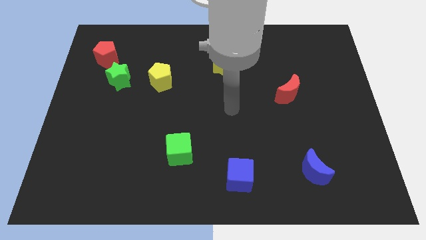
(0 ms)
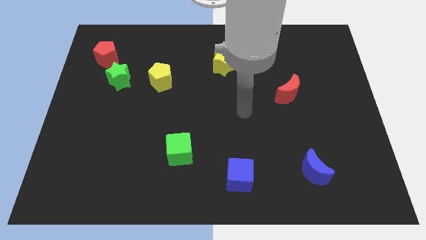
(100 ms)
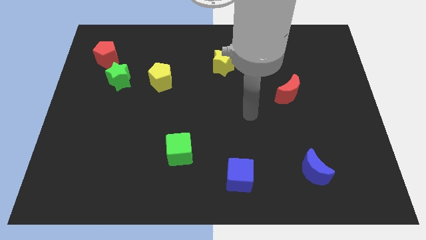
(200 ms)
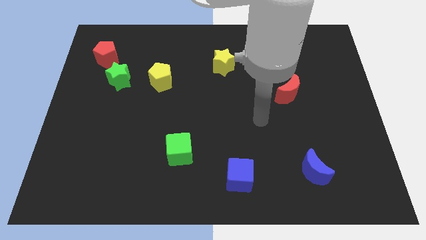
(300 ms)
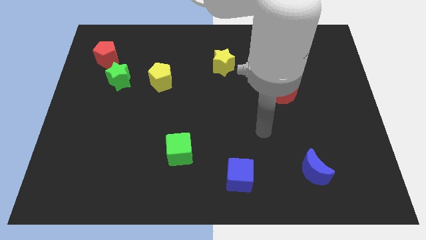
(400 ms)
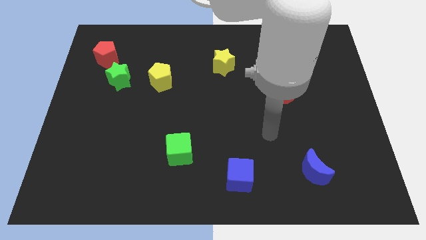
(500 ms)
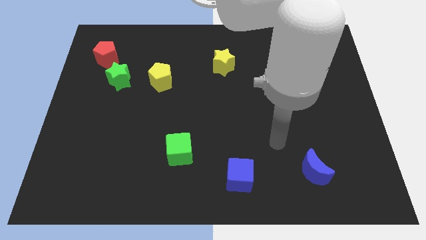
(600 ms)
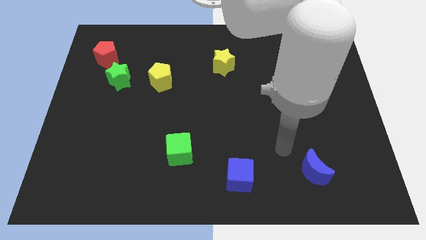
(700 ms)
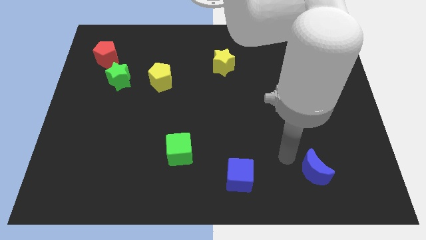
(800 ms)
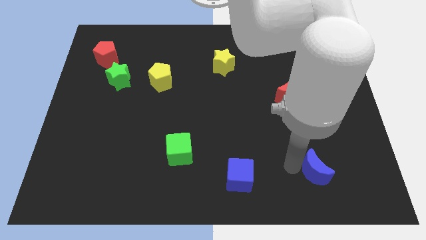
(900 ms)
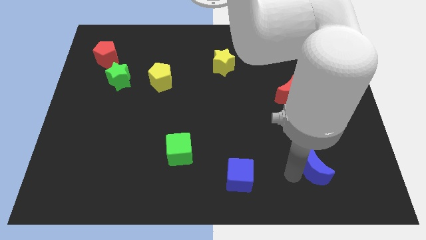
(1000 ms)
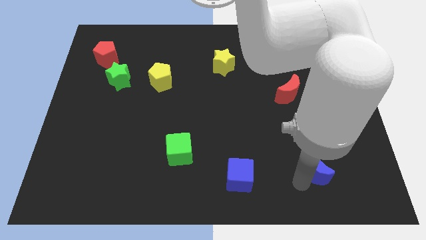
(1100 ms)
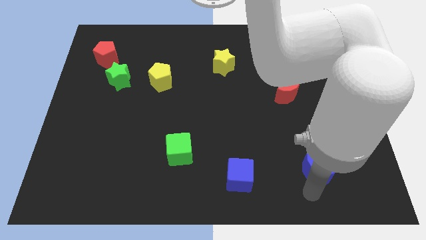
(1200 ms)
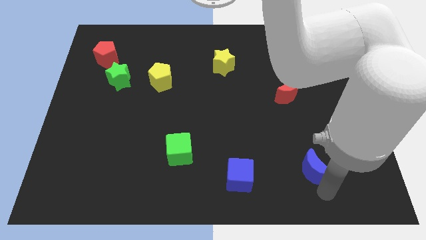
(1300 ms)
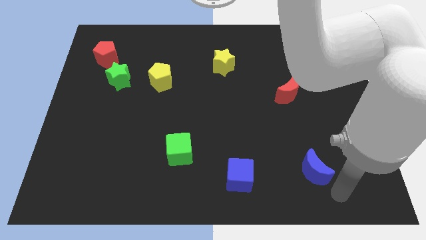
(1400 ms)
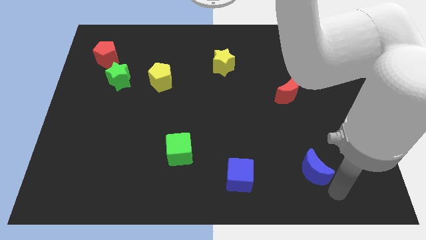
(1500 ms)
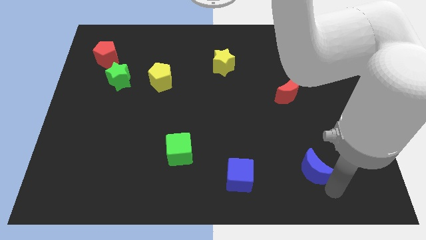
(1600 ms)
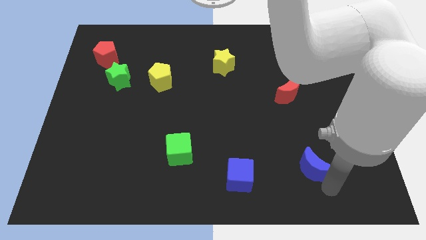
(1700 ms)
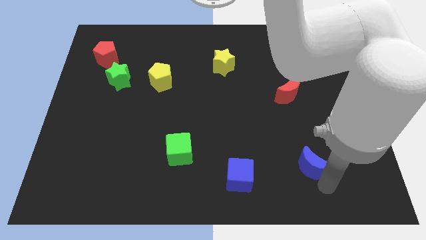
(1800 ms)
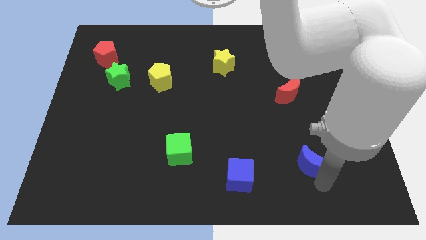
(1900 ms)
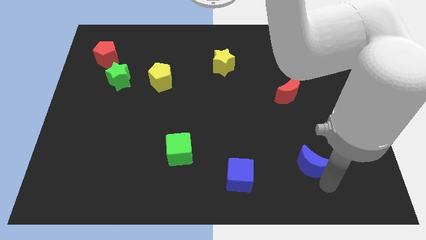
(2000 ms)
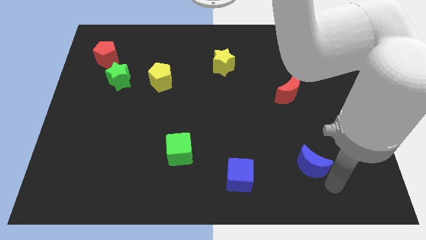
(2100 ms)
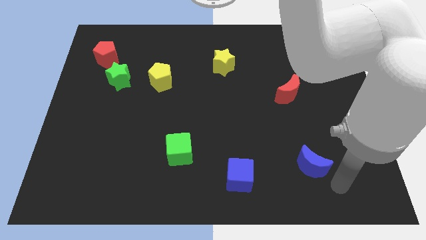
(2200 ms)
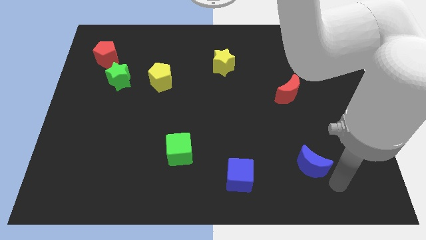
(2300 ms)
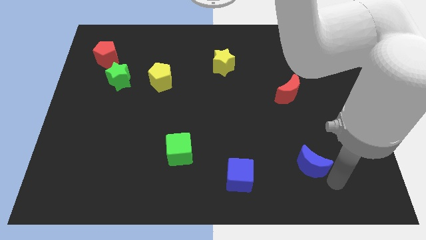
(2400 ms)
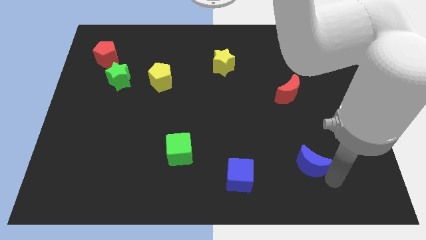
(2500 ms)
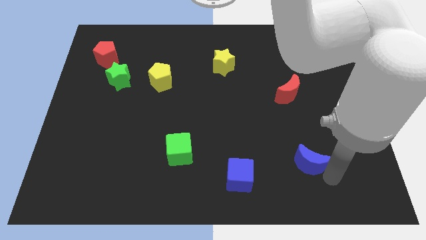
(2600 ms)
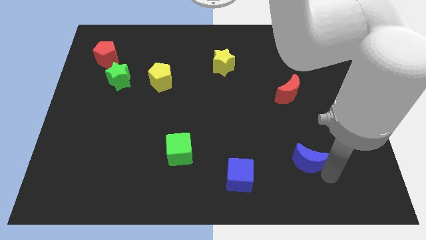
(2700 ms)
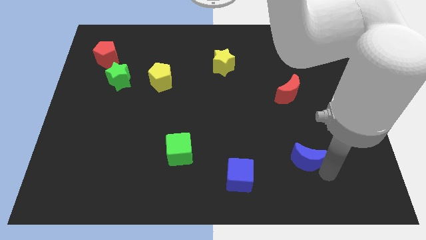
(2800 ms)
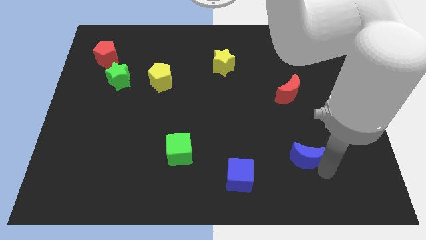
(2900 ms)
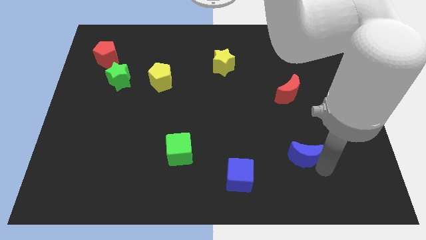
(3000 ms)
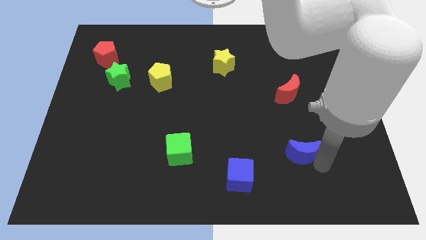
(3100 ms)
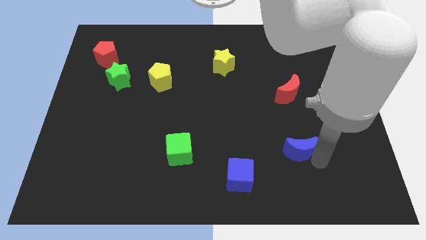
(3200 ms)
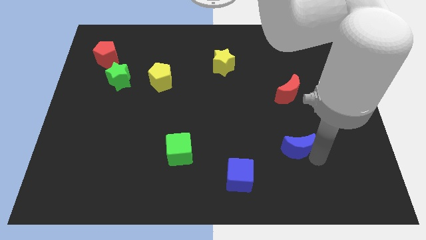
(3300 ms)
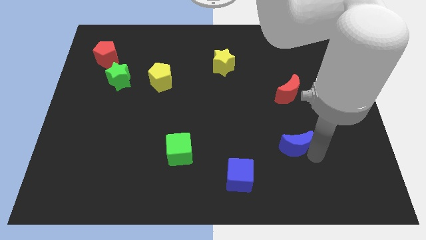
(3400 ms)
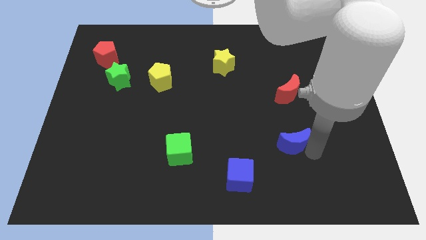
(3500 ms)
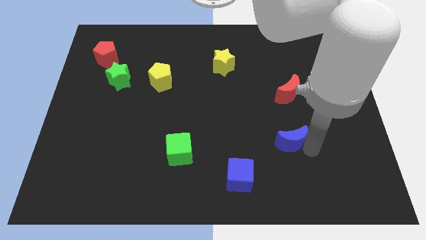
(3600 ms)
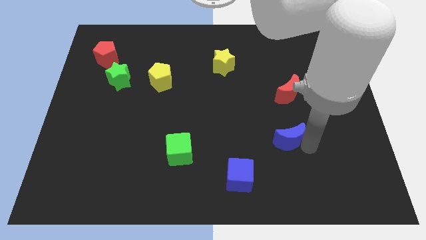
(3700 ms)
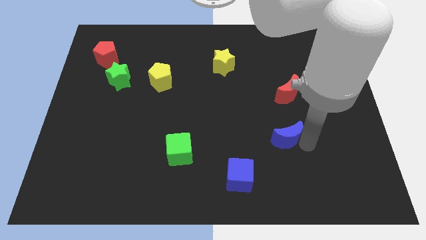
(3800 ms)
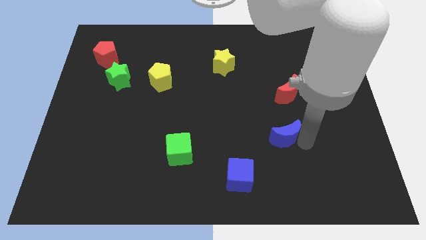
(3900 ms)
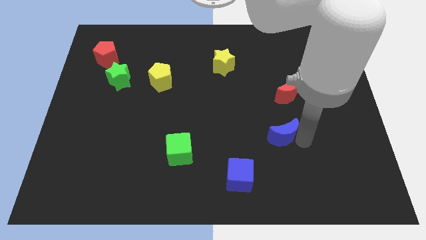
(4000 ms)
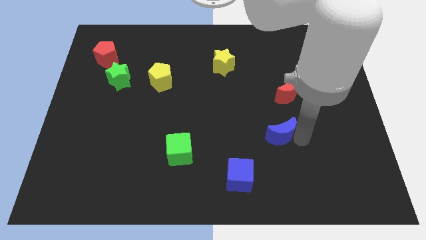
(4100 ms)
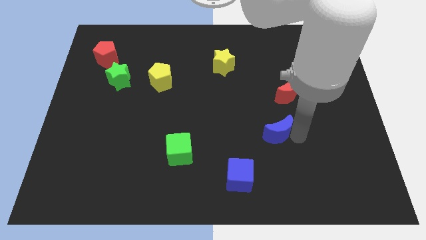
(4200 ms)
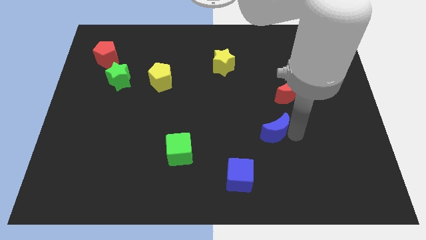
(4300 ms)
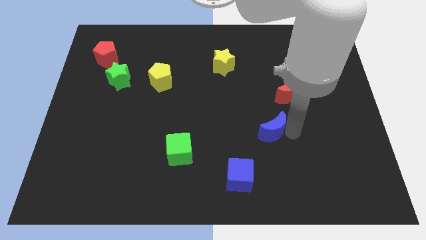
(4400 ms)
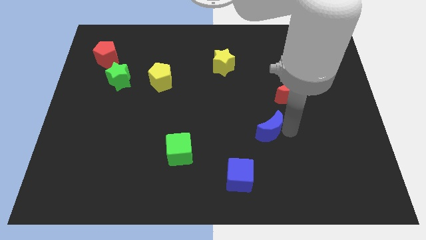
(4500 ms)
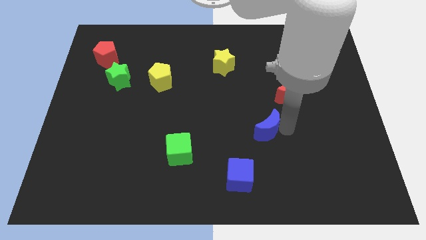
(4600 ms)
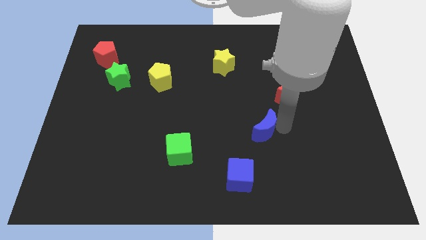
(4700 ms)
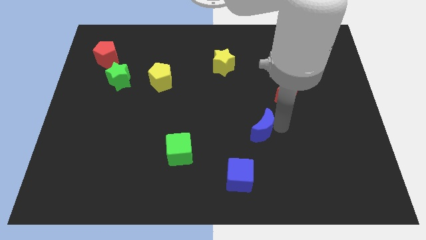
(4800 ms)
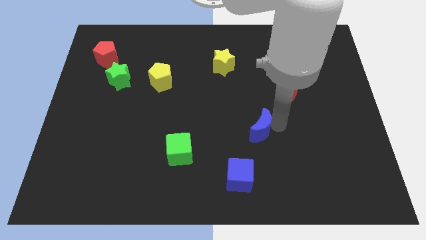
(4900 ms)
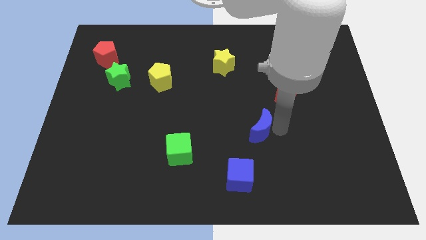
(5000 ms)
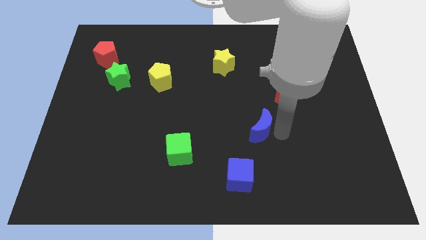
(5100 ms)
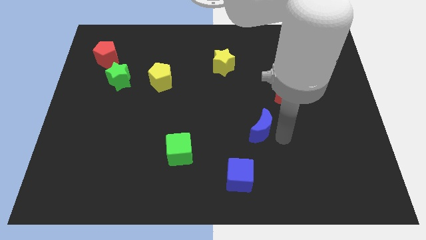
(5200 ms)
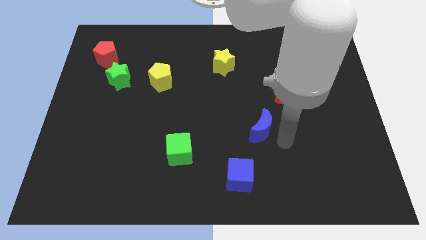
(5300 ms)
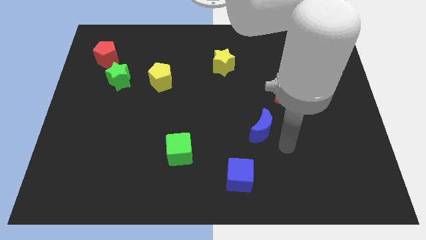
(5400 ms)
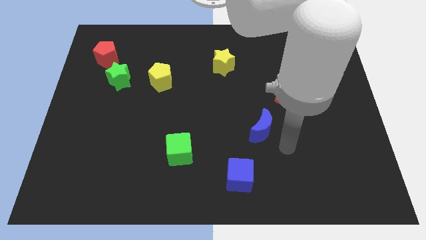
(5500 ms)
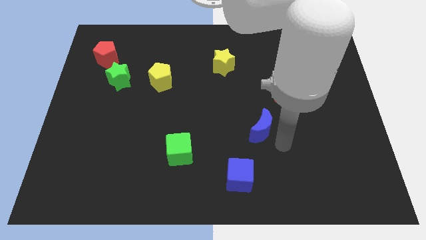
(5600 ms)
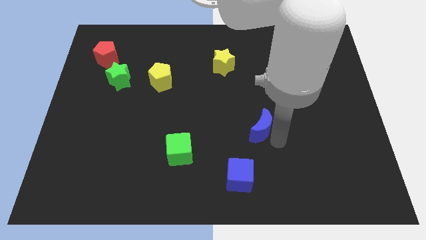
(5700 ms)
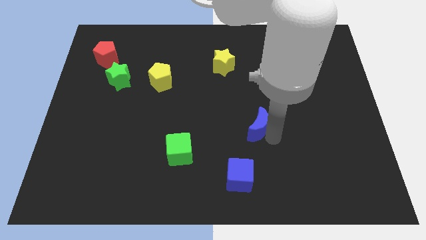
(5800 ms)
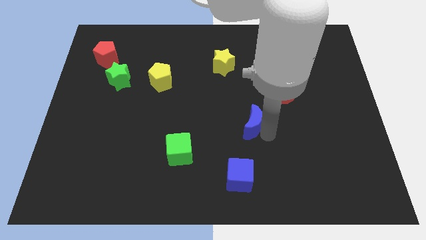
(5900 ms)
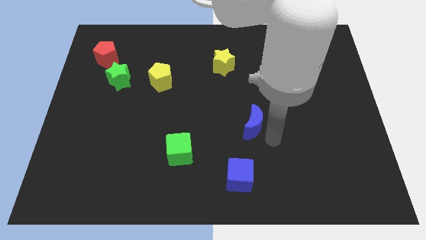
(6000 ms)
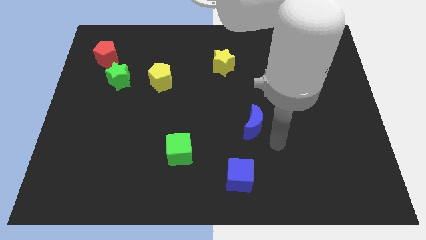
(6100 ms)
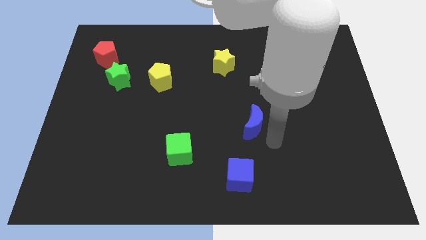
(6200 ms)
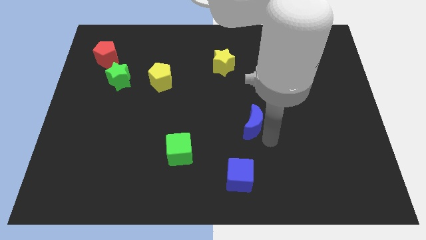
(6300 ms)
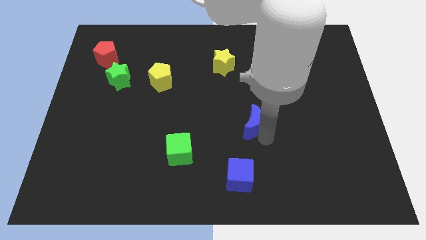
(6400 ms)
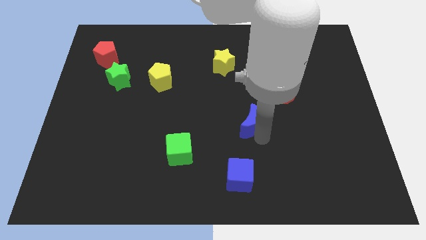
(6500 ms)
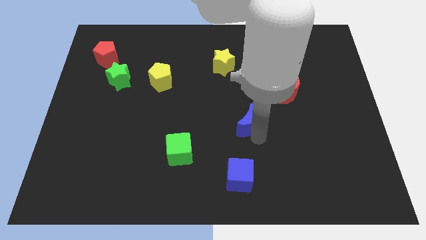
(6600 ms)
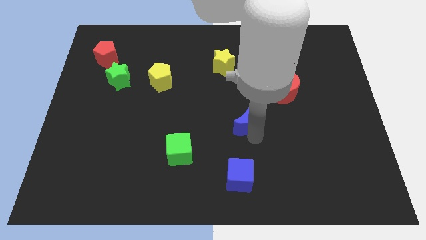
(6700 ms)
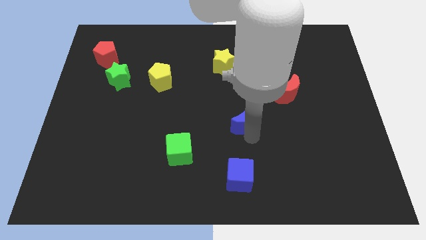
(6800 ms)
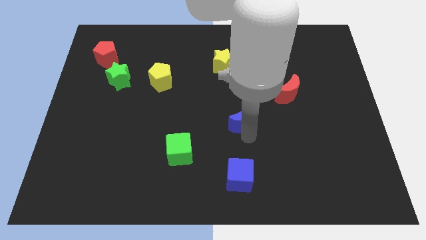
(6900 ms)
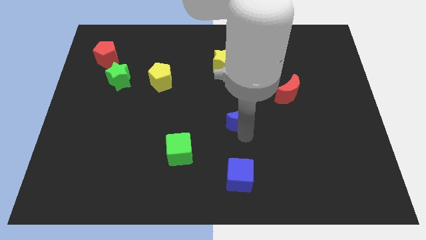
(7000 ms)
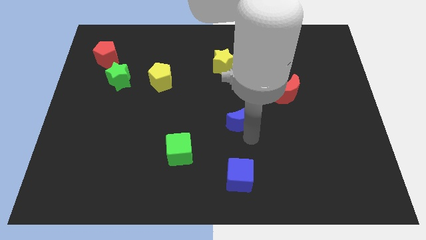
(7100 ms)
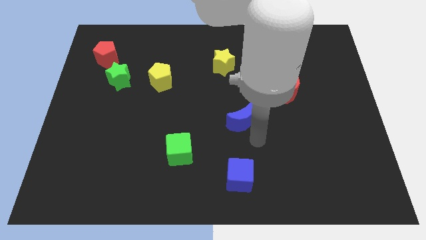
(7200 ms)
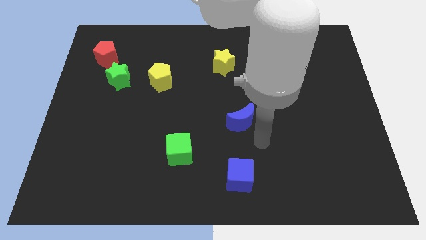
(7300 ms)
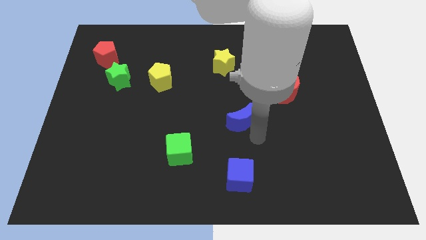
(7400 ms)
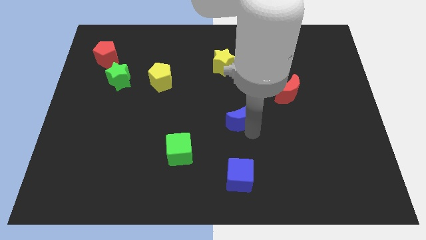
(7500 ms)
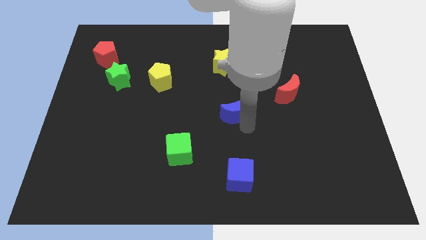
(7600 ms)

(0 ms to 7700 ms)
push the blue moon diagonally up and to the left

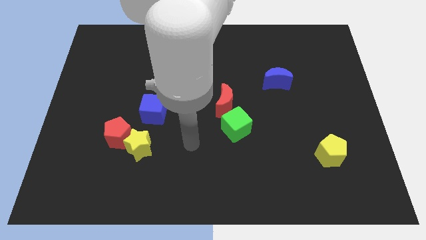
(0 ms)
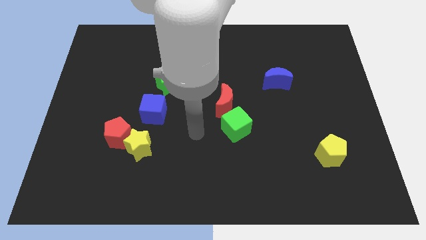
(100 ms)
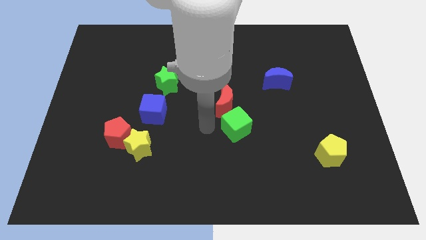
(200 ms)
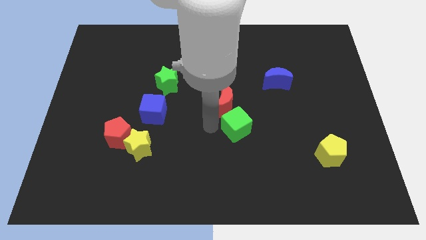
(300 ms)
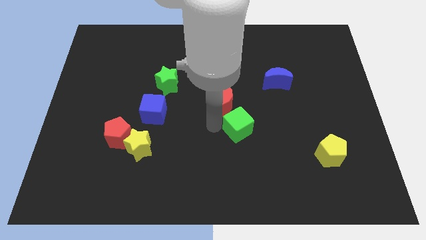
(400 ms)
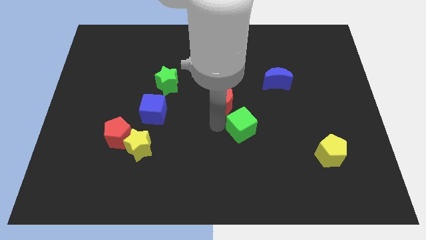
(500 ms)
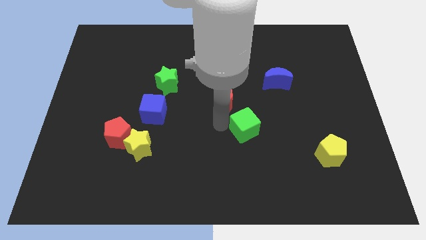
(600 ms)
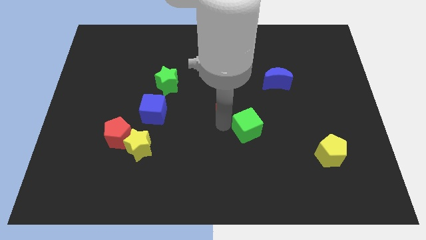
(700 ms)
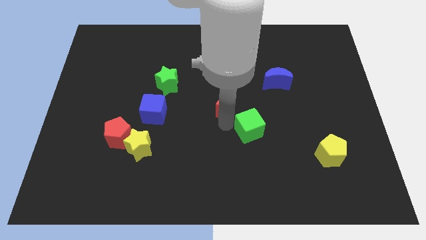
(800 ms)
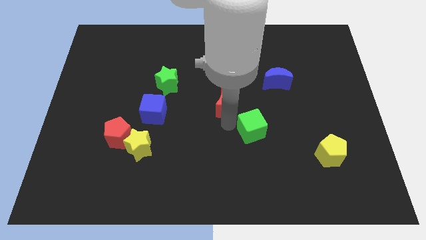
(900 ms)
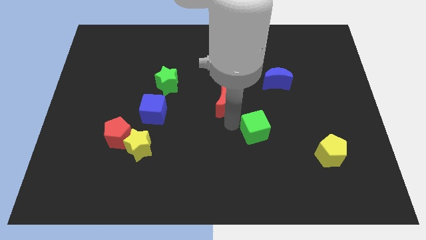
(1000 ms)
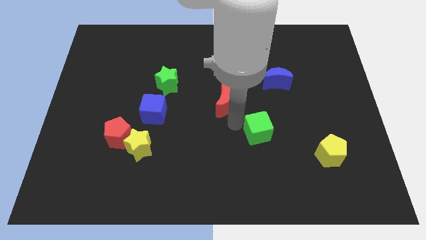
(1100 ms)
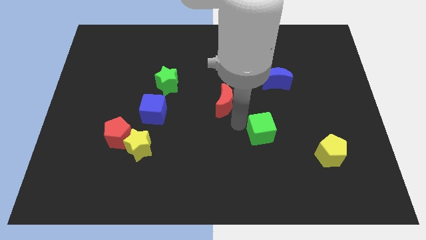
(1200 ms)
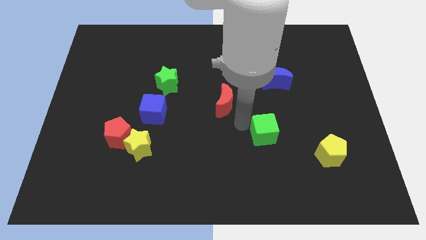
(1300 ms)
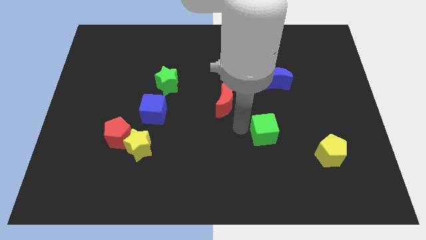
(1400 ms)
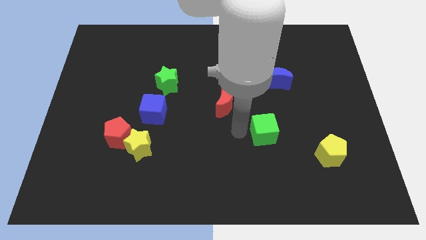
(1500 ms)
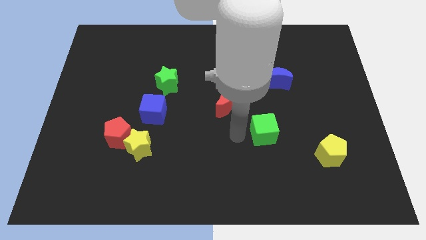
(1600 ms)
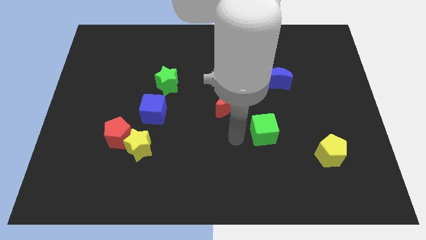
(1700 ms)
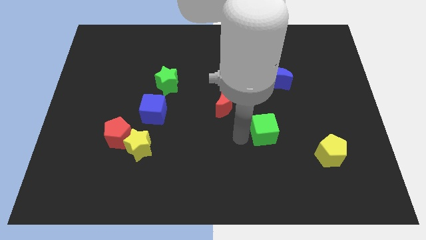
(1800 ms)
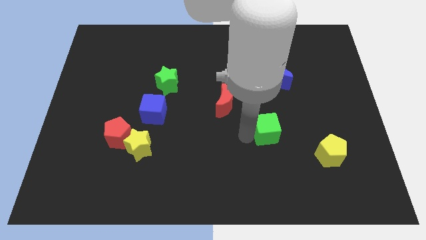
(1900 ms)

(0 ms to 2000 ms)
slightly push the green cube right
